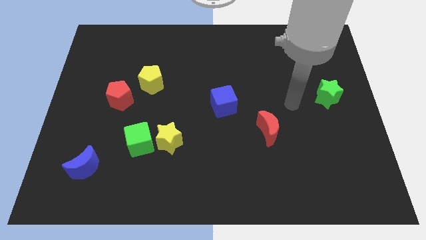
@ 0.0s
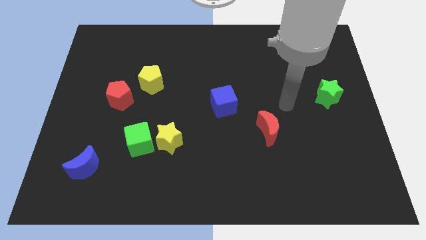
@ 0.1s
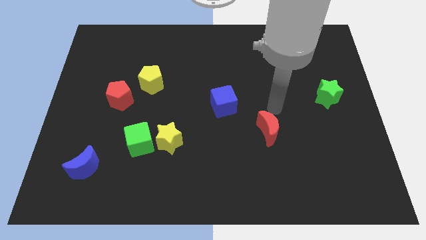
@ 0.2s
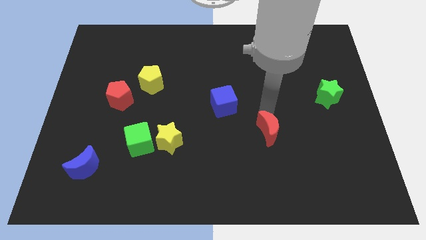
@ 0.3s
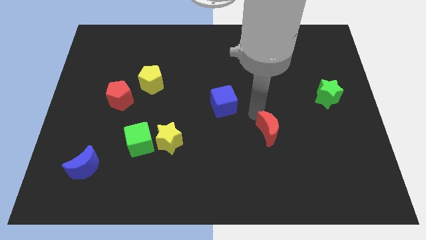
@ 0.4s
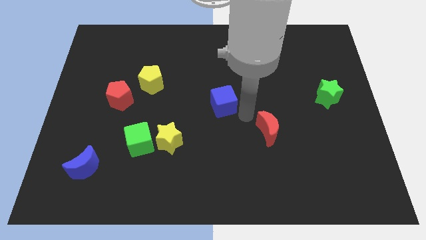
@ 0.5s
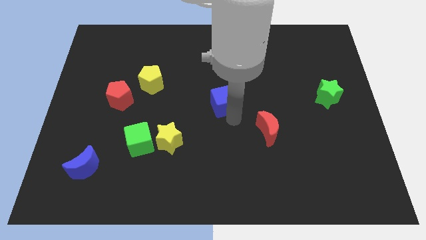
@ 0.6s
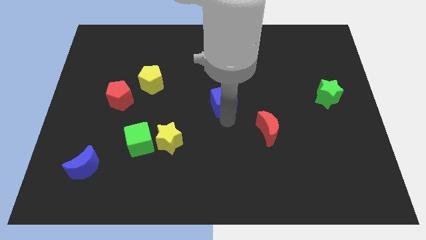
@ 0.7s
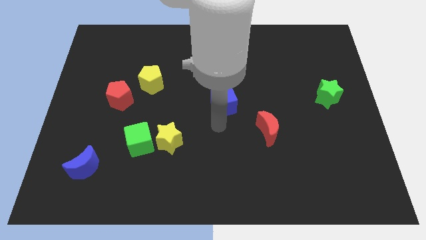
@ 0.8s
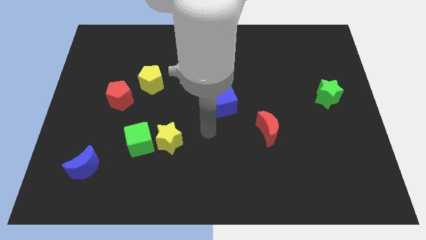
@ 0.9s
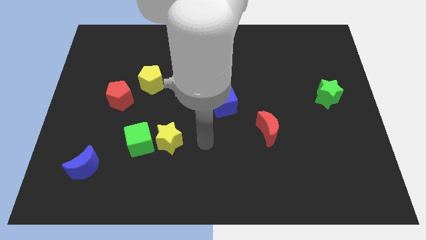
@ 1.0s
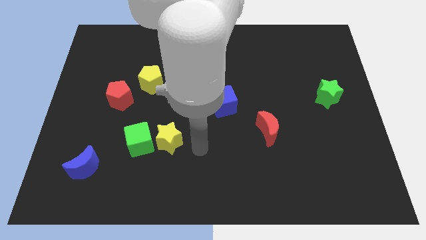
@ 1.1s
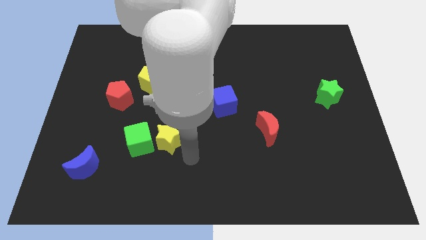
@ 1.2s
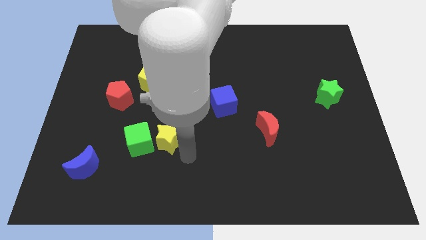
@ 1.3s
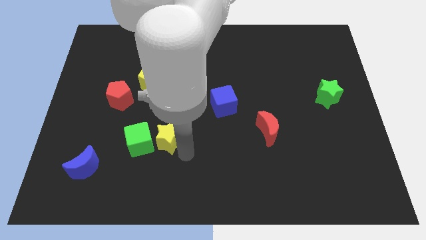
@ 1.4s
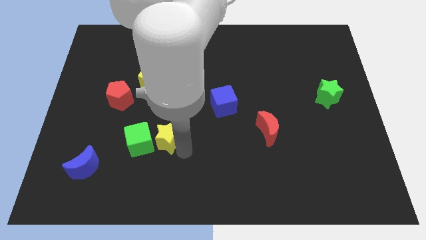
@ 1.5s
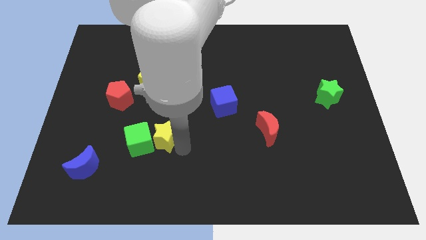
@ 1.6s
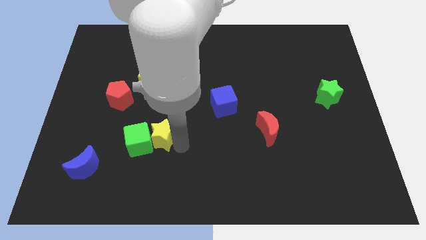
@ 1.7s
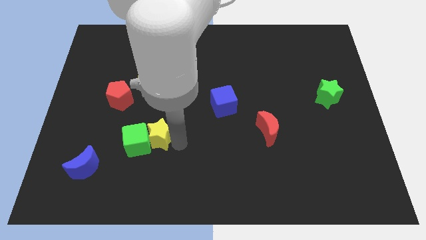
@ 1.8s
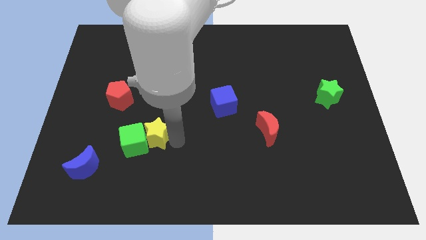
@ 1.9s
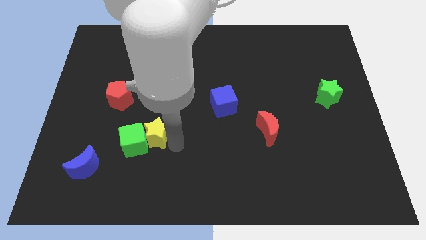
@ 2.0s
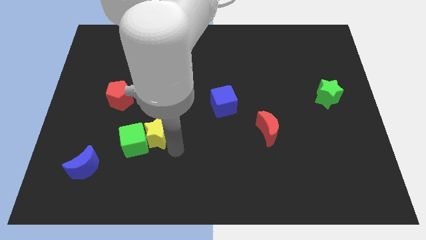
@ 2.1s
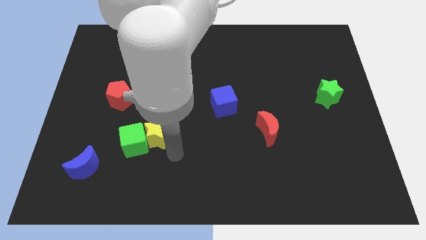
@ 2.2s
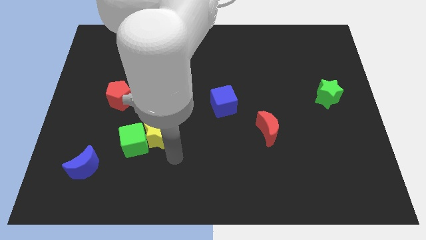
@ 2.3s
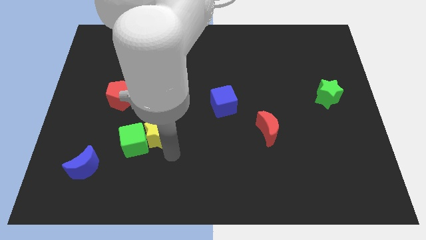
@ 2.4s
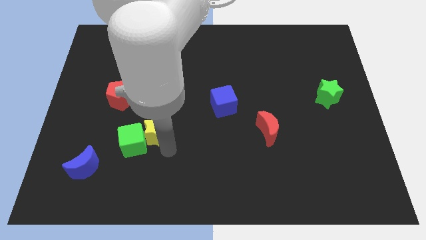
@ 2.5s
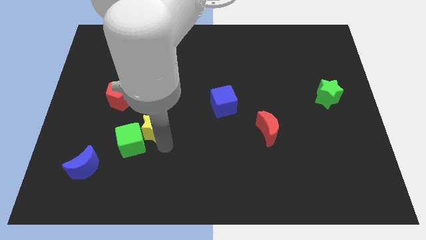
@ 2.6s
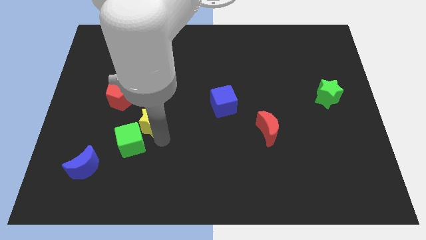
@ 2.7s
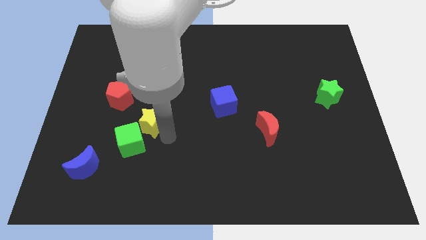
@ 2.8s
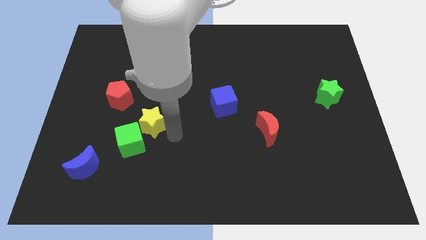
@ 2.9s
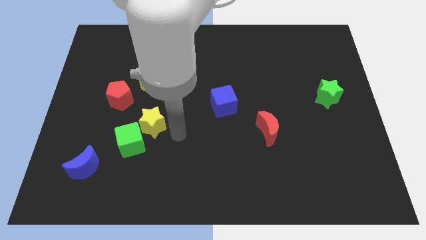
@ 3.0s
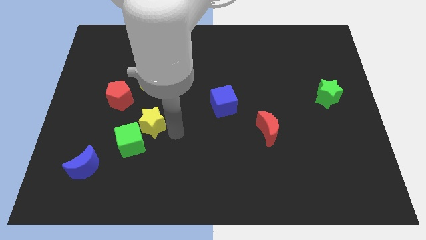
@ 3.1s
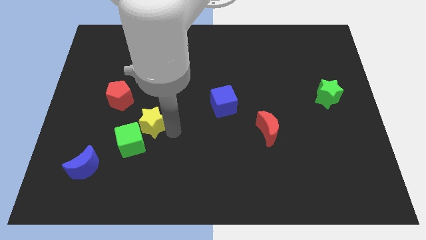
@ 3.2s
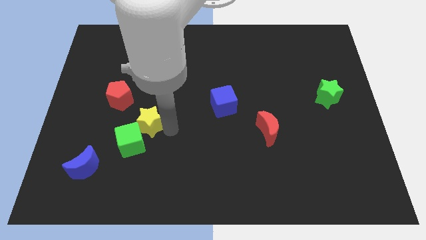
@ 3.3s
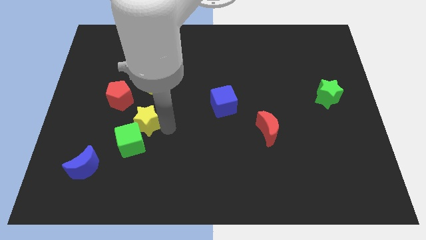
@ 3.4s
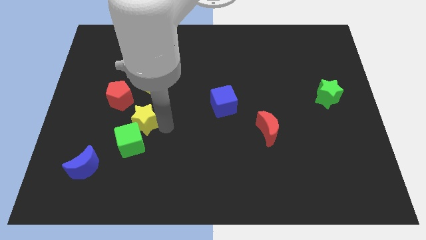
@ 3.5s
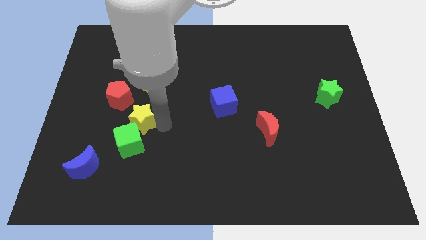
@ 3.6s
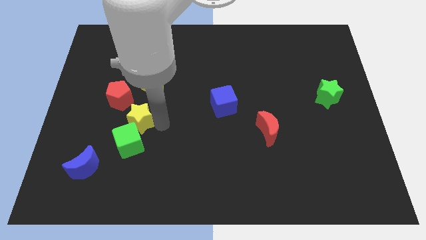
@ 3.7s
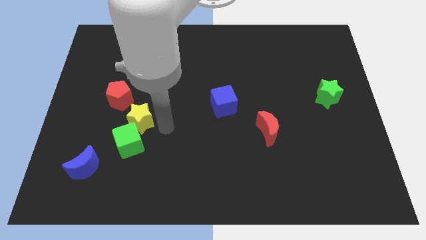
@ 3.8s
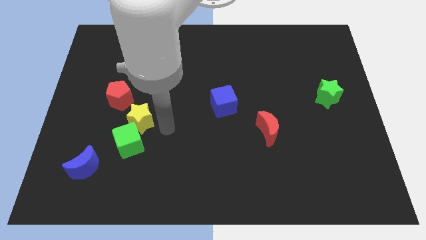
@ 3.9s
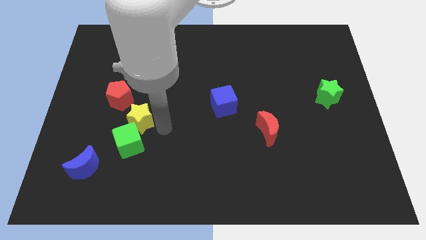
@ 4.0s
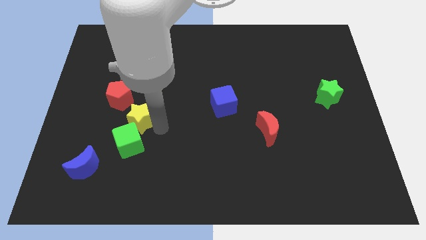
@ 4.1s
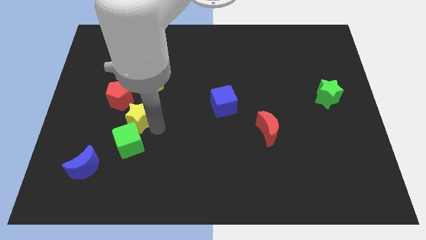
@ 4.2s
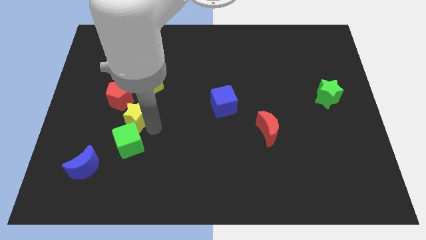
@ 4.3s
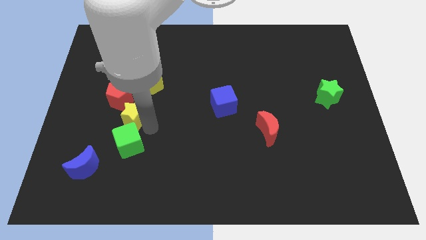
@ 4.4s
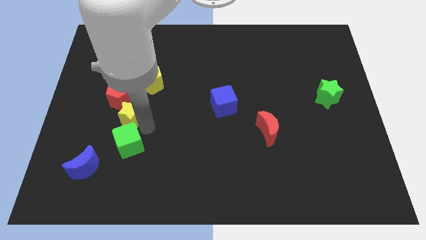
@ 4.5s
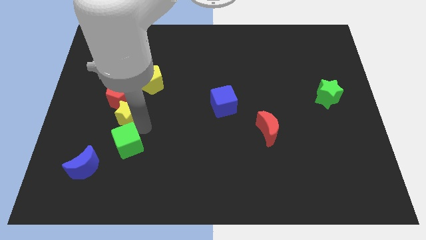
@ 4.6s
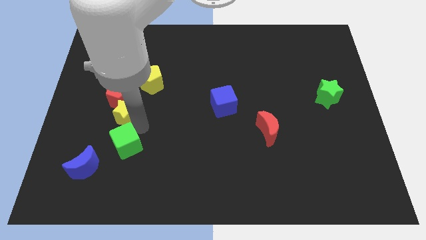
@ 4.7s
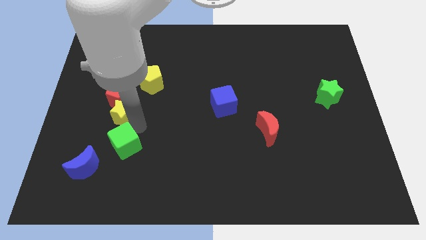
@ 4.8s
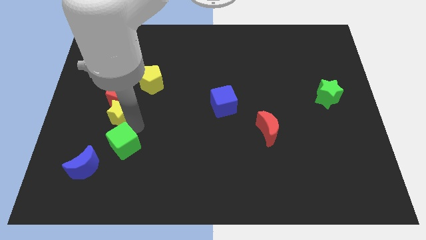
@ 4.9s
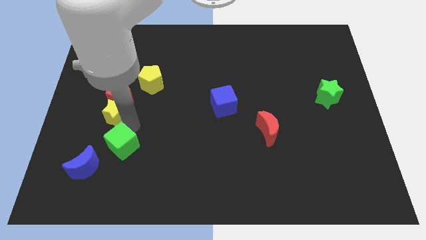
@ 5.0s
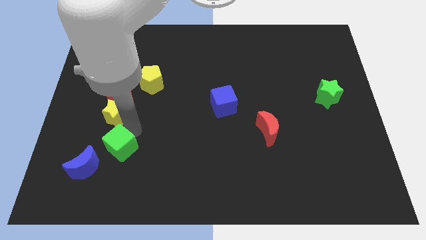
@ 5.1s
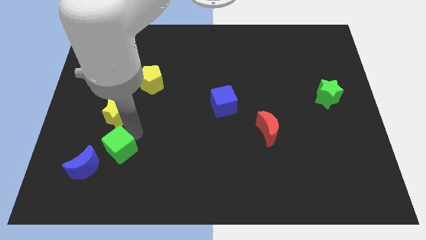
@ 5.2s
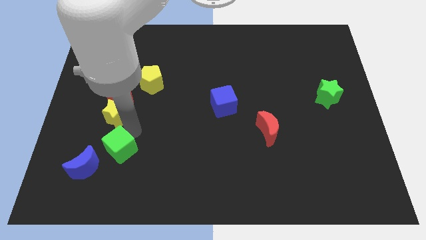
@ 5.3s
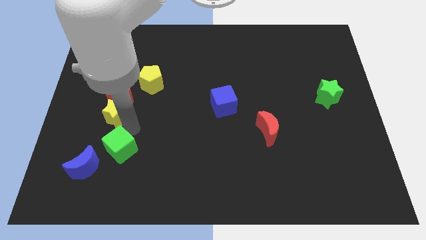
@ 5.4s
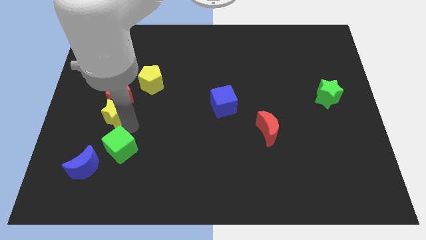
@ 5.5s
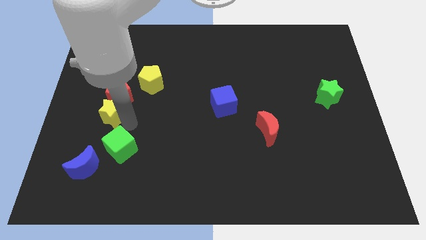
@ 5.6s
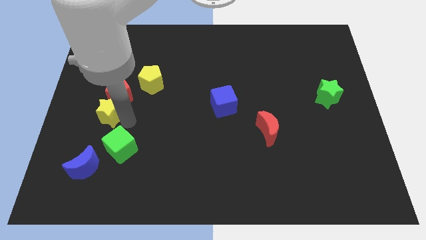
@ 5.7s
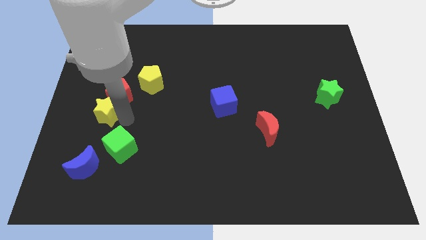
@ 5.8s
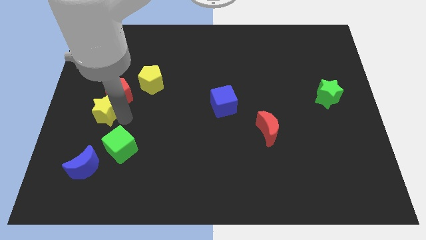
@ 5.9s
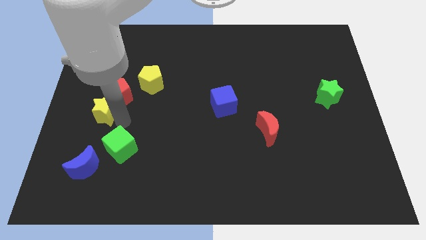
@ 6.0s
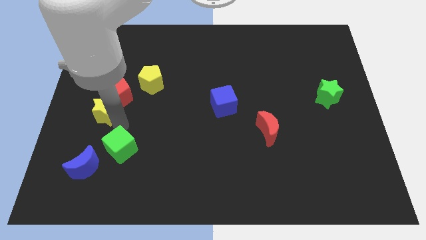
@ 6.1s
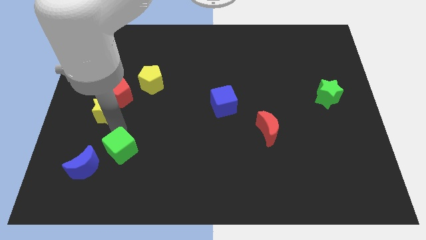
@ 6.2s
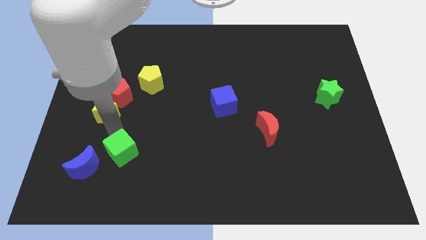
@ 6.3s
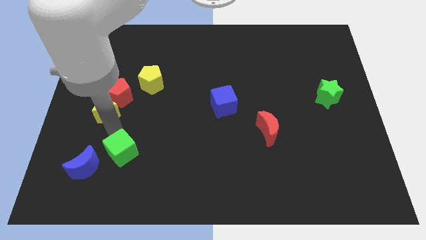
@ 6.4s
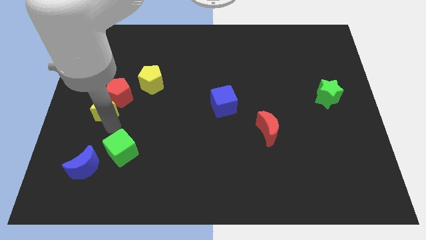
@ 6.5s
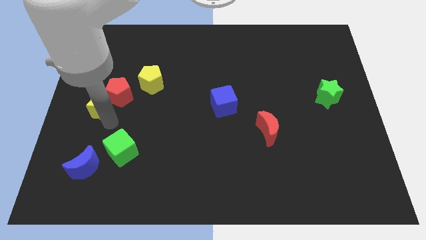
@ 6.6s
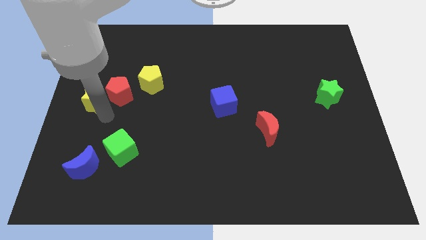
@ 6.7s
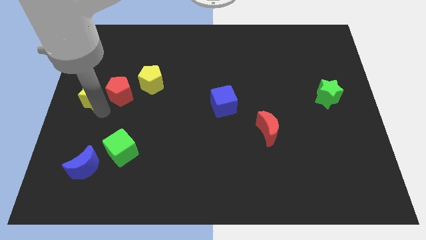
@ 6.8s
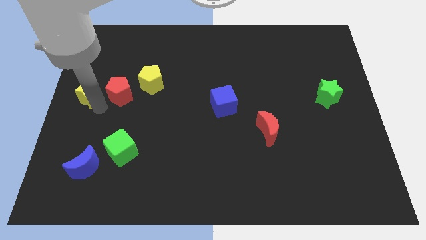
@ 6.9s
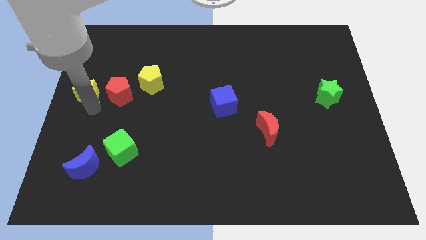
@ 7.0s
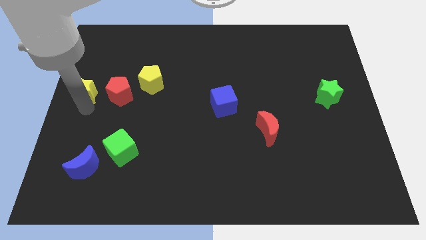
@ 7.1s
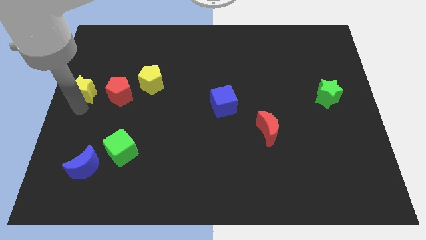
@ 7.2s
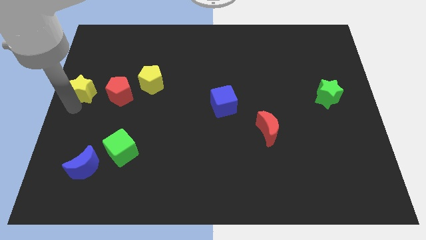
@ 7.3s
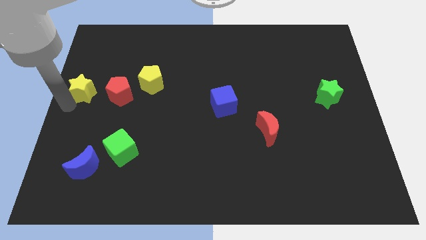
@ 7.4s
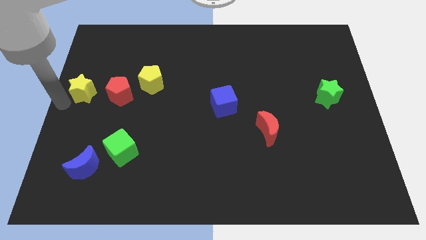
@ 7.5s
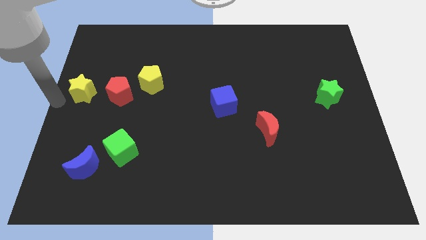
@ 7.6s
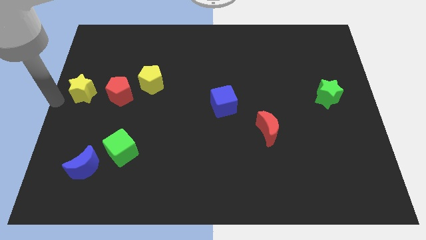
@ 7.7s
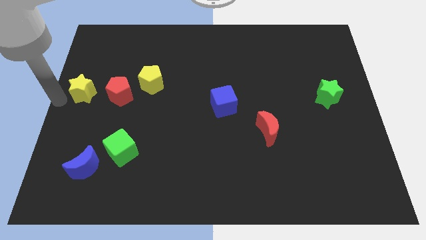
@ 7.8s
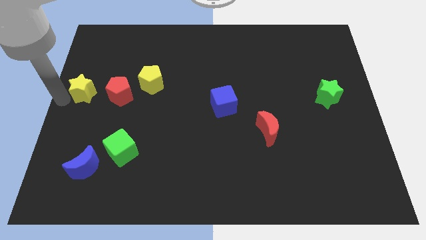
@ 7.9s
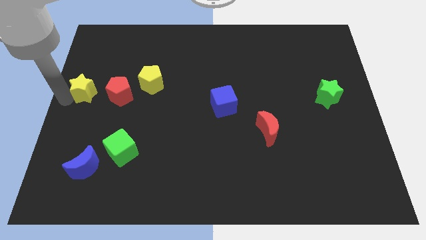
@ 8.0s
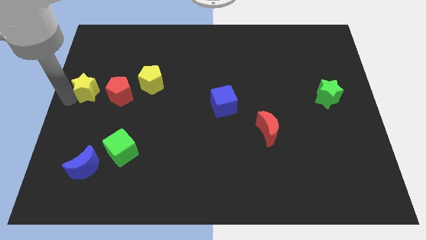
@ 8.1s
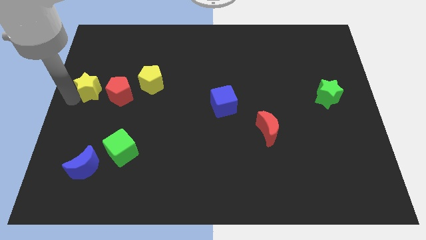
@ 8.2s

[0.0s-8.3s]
slide the yellow star left of the yellow pentagon
